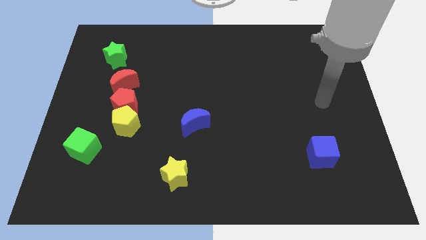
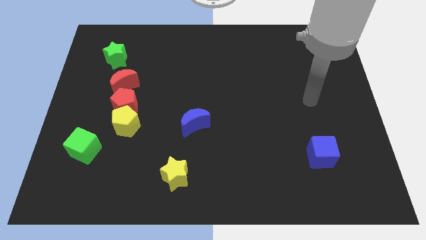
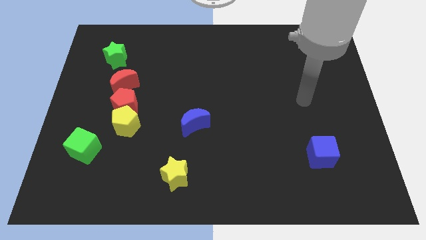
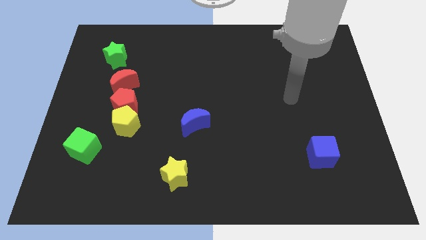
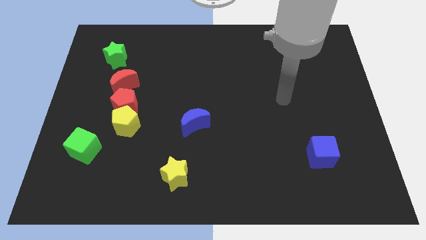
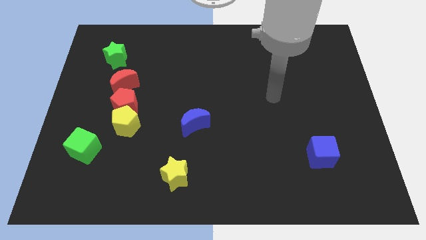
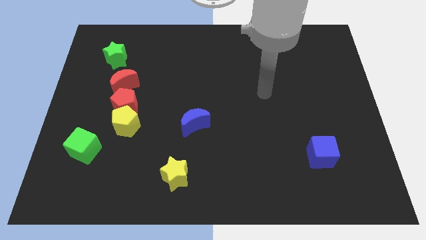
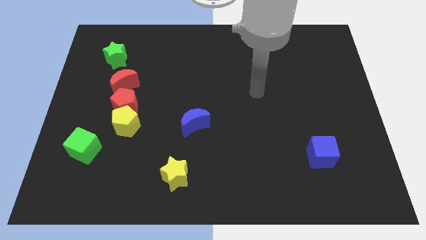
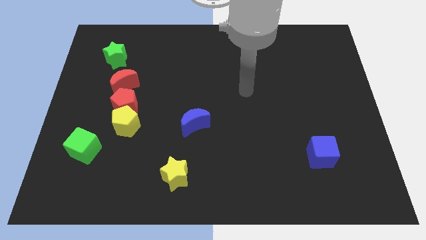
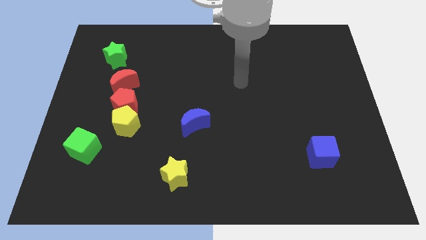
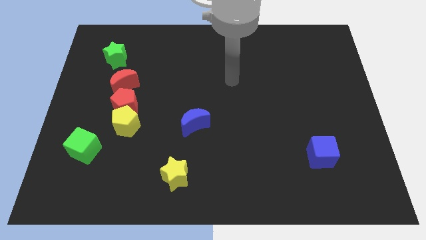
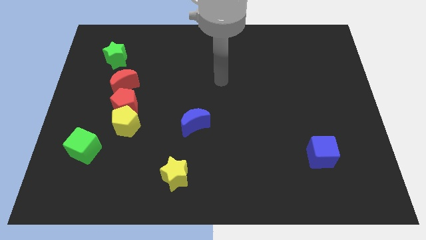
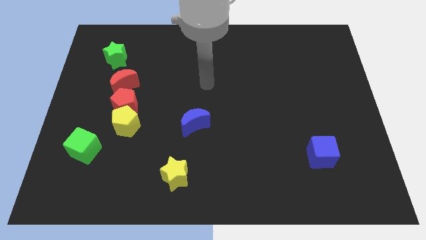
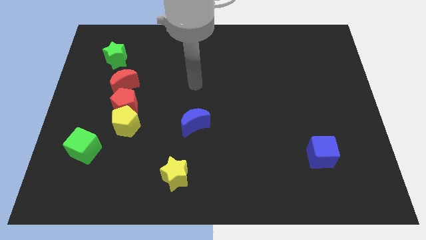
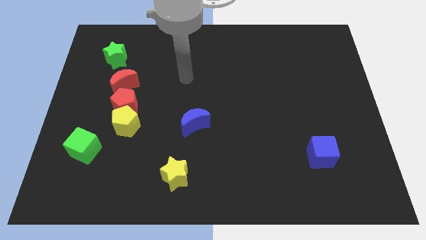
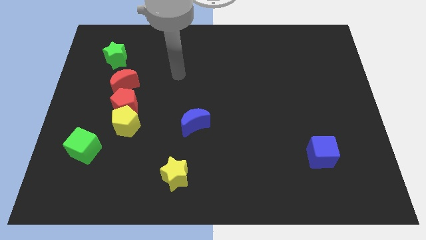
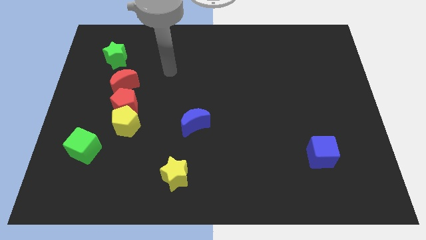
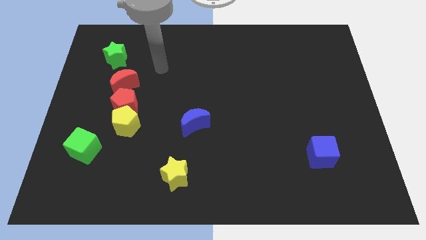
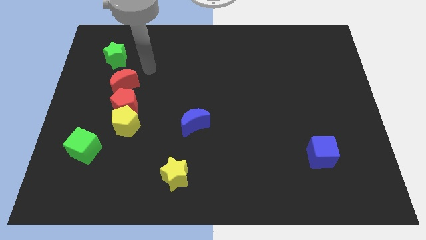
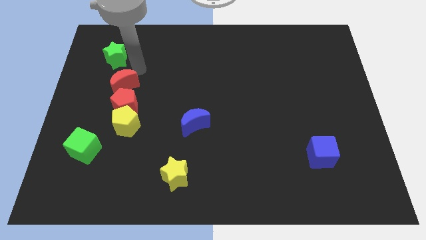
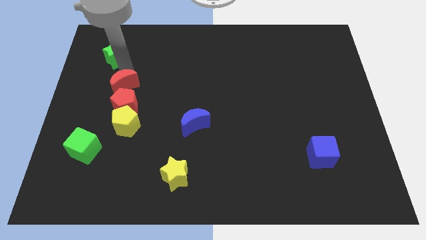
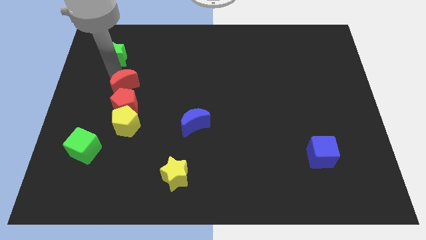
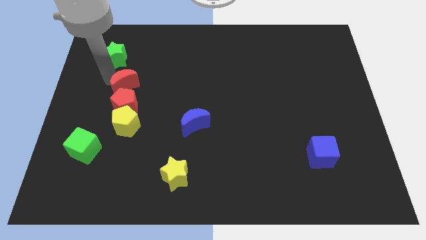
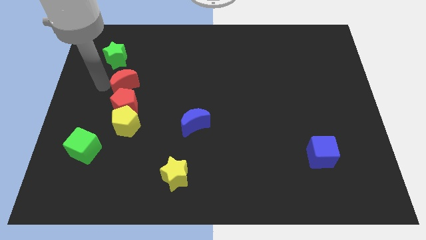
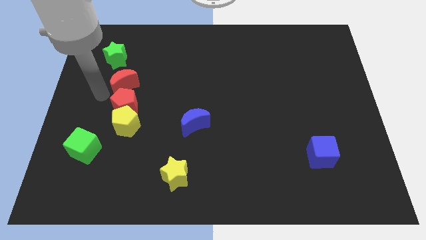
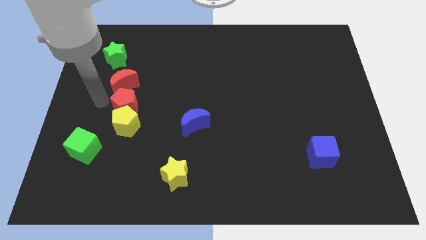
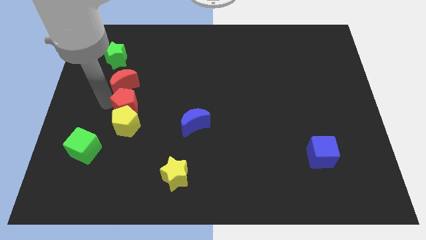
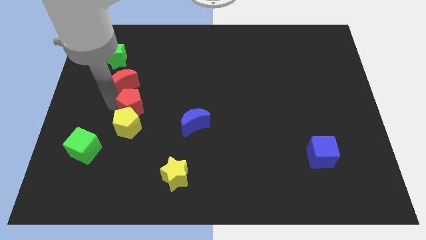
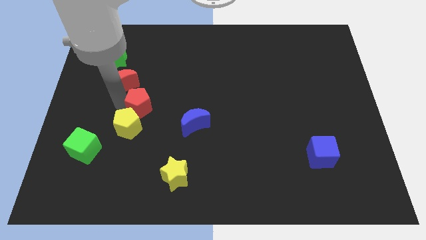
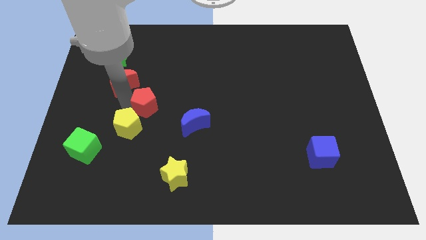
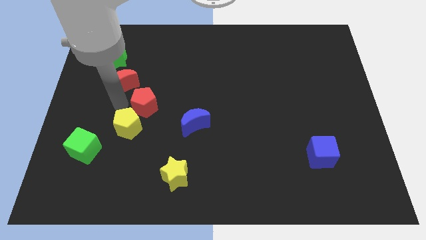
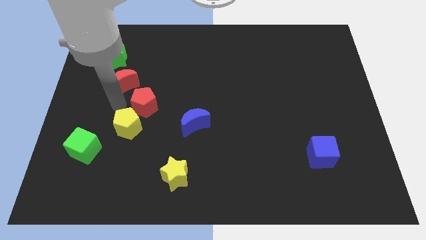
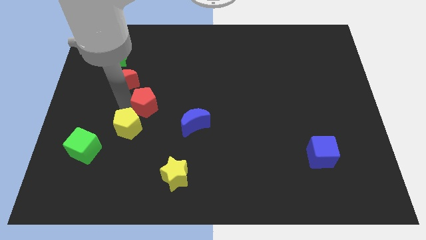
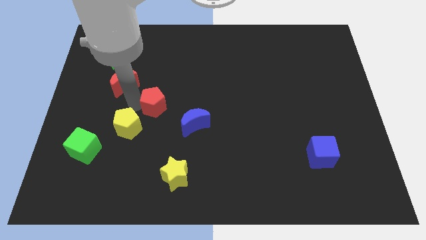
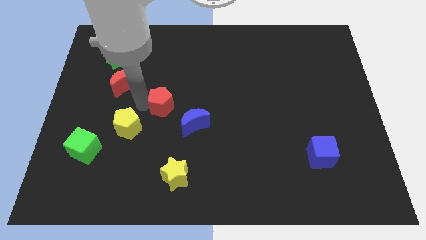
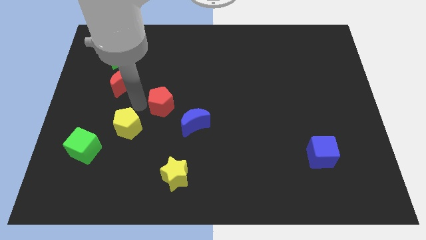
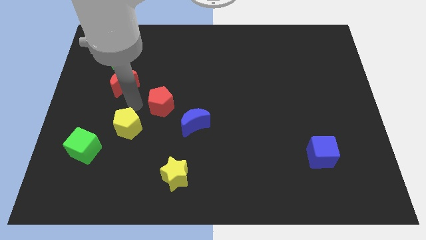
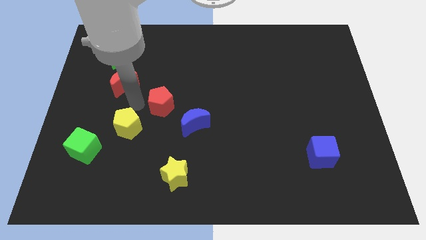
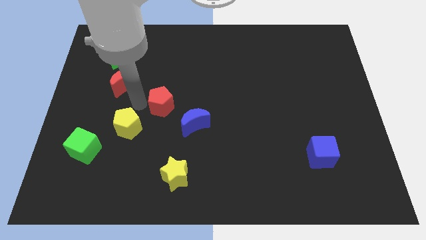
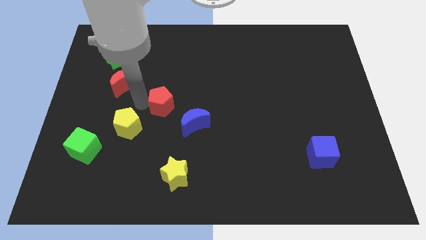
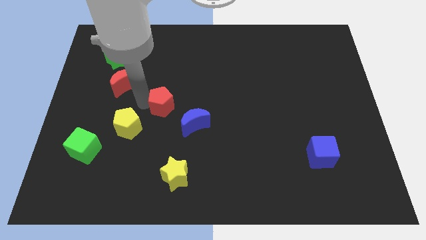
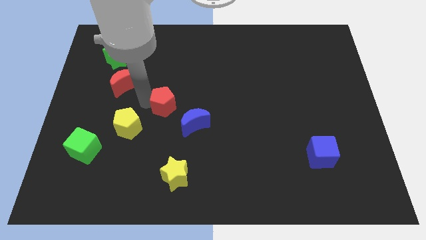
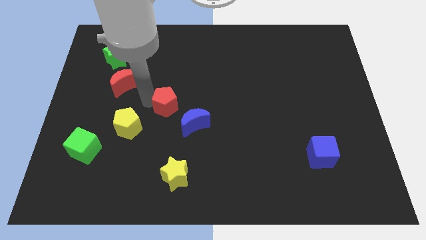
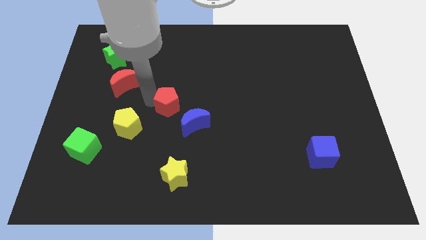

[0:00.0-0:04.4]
separate the red pentagon from the yellow pentagon and red moon

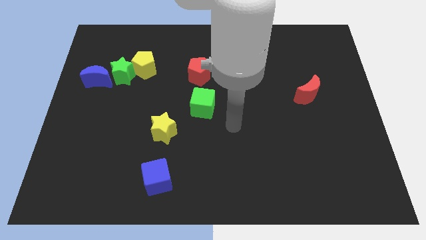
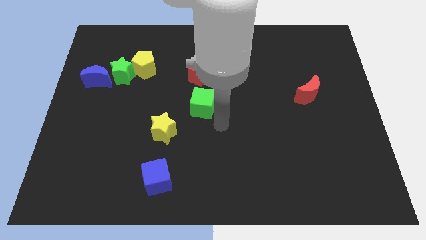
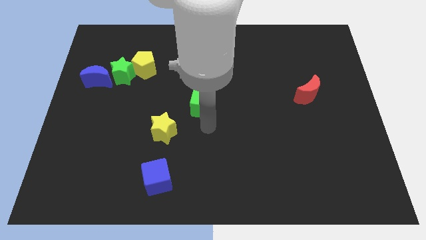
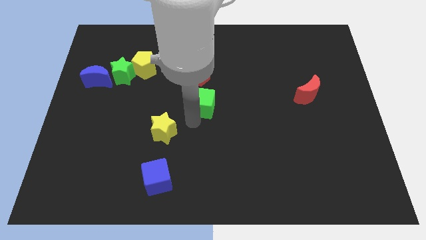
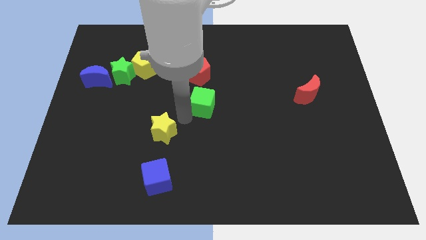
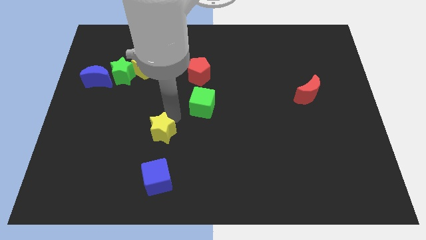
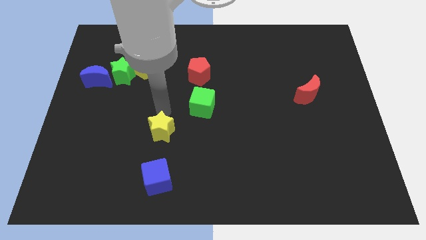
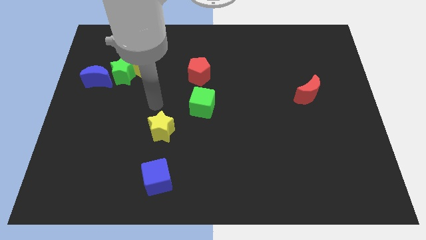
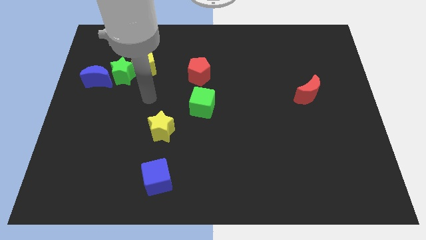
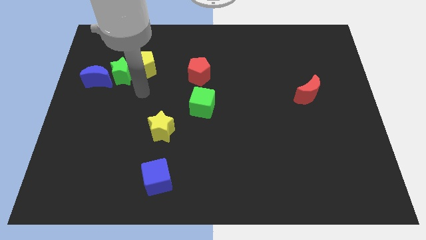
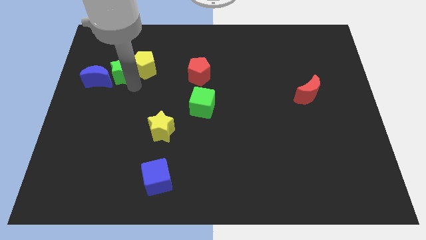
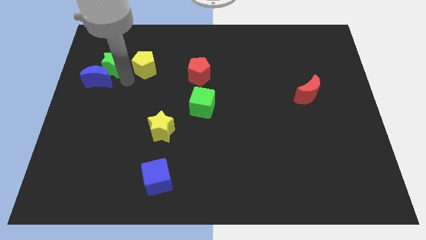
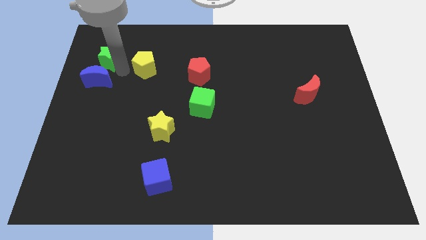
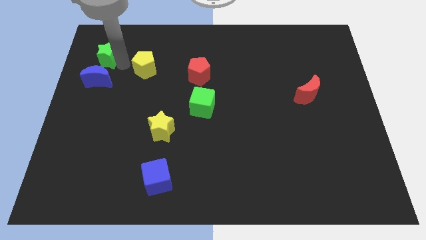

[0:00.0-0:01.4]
move the yellow pentagon away from the green star

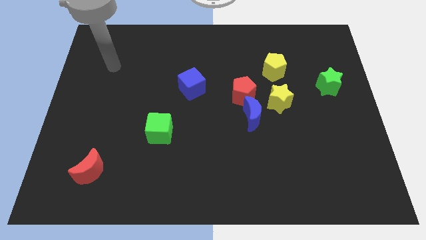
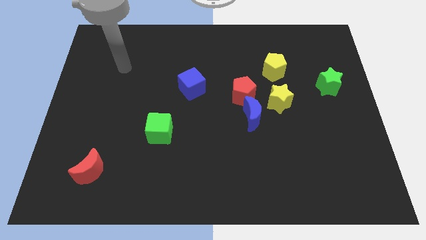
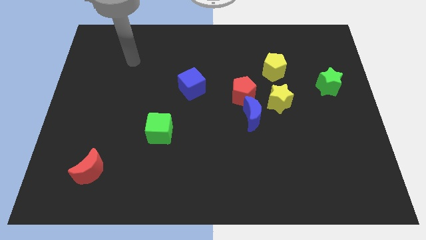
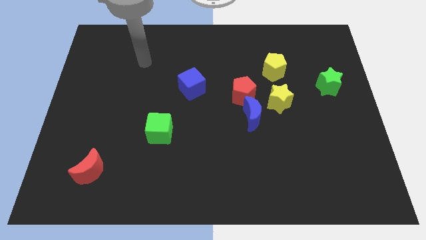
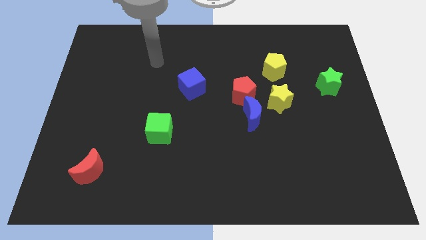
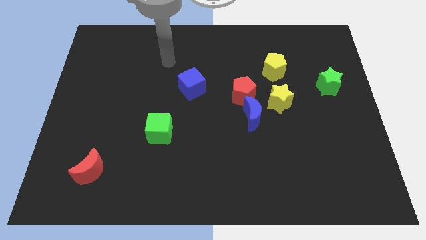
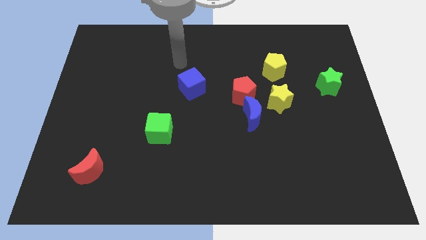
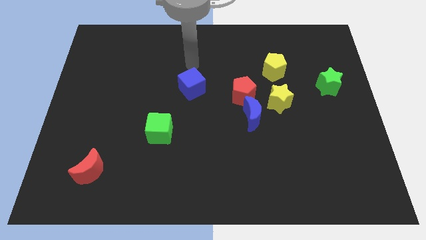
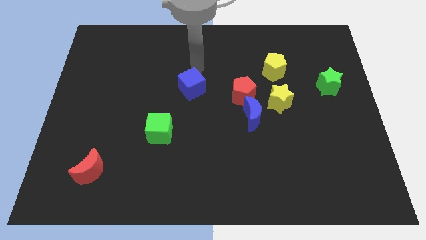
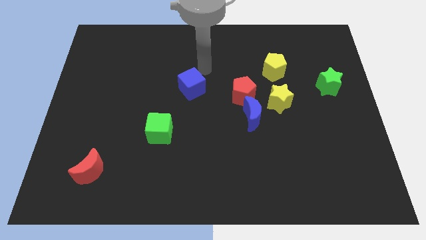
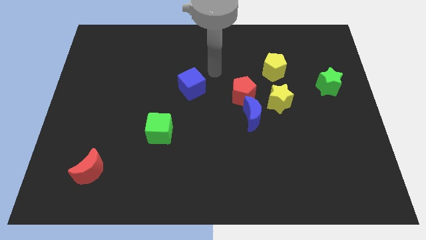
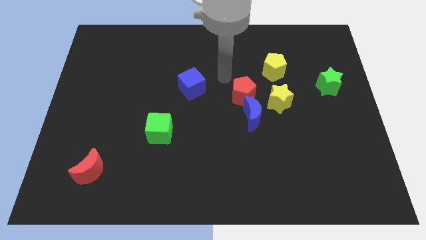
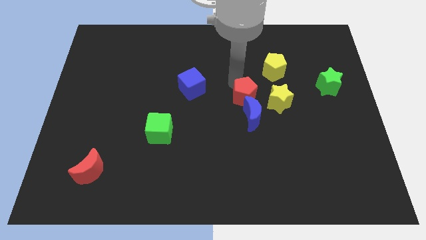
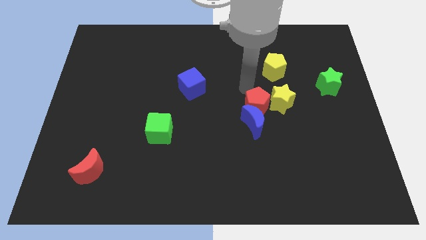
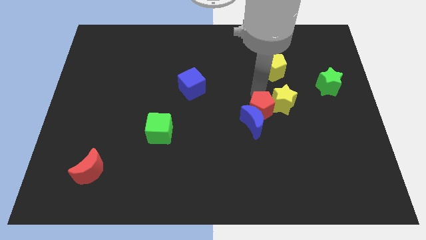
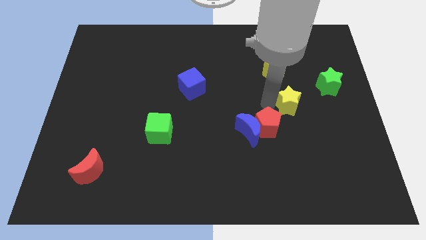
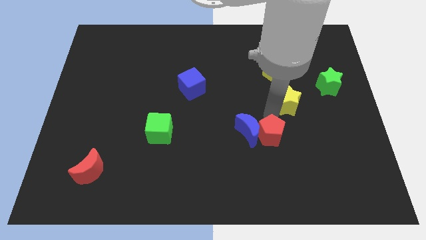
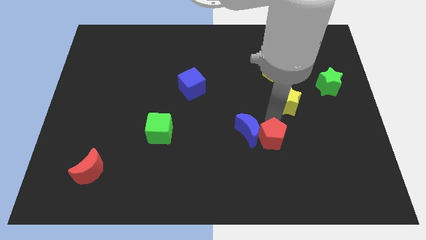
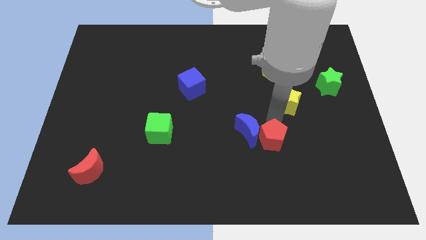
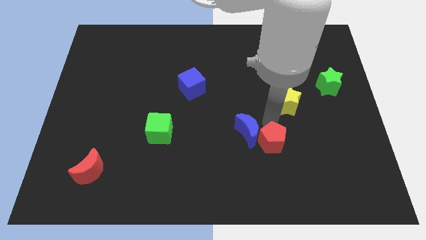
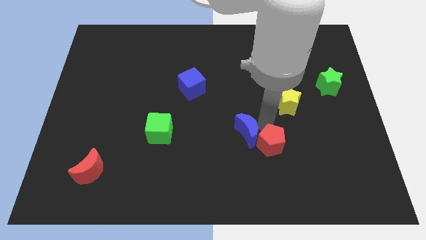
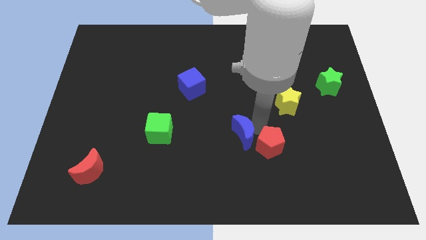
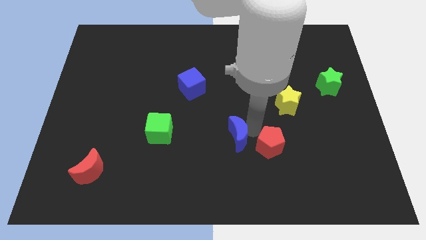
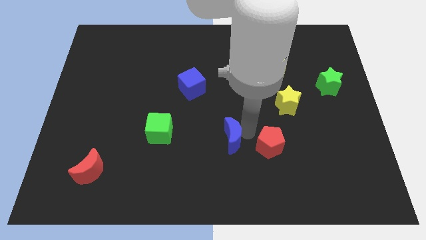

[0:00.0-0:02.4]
pull the blue moon apart from the red pentagon and yellow star

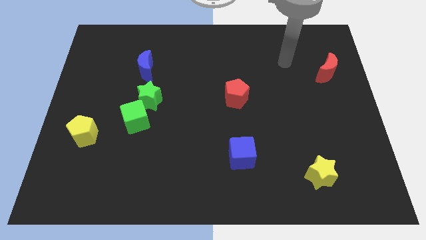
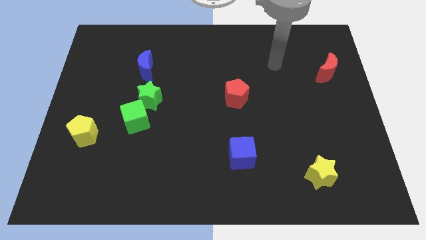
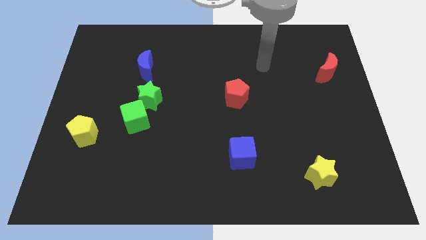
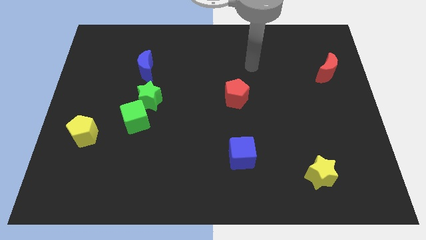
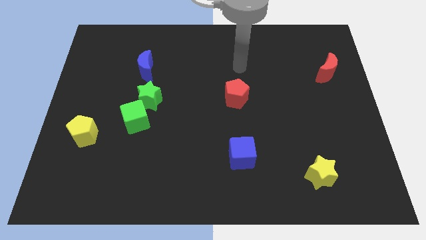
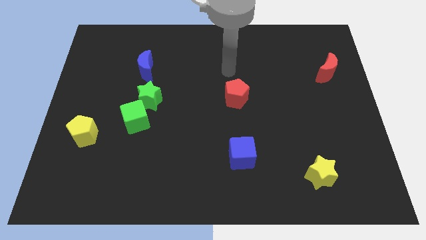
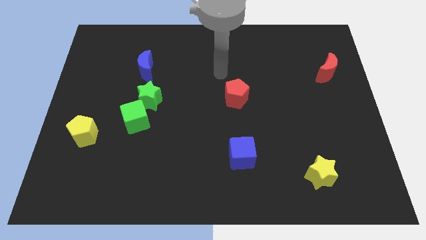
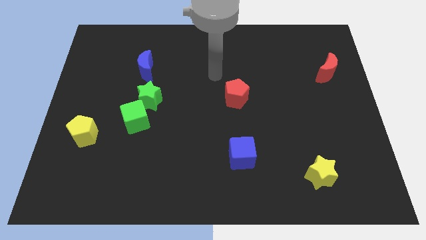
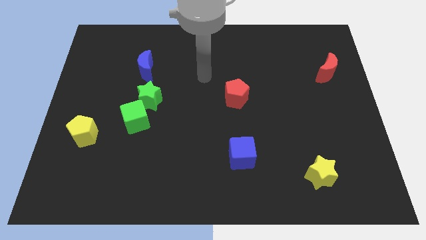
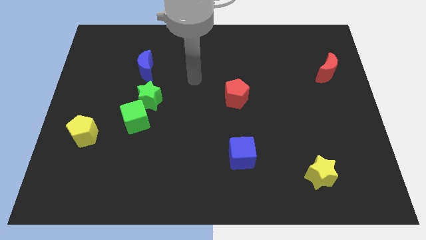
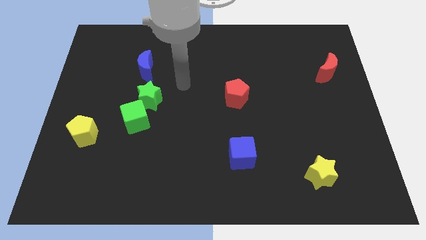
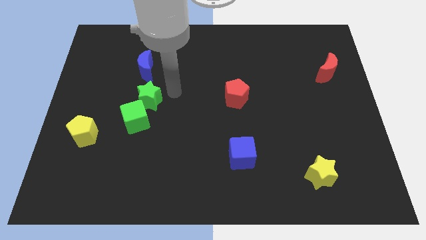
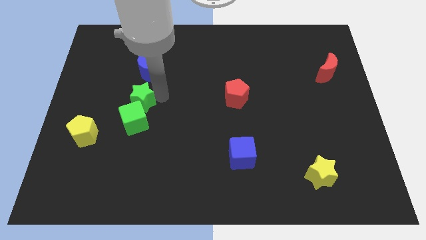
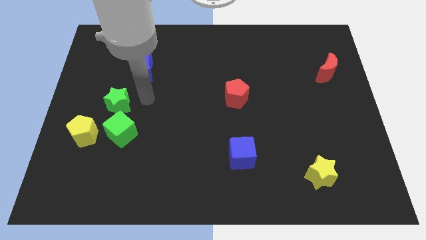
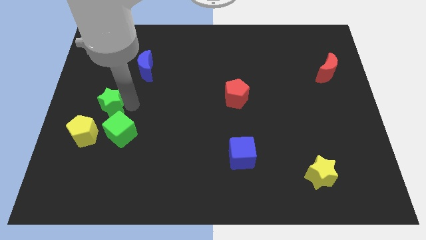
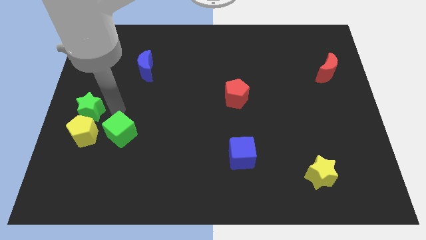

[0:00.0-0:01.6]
pull the green cube apart from the green star
